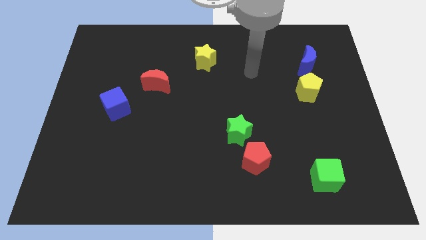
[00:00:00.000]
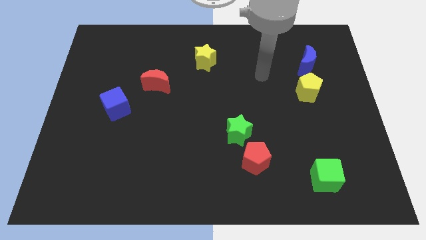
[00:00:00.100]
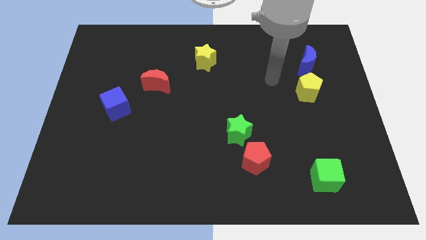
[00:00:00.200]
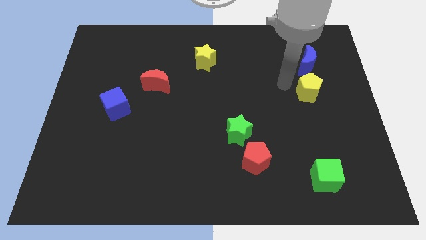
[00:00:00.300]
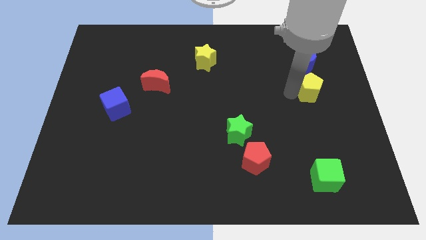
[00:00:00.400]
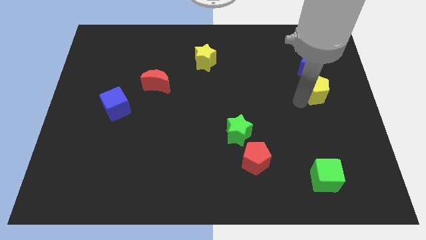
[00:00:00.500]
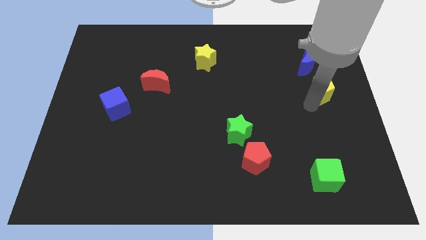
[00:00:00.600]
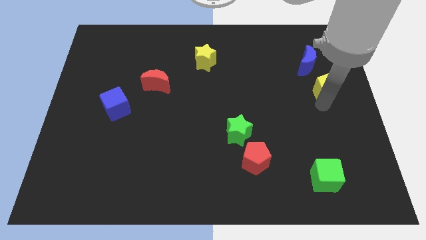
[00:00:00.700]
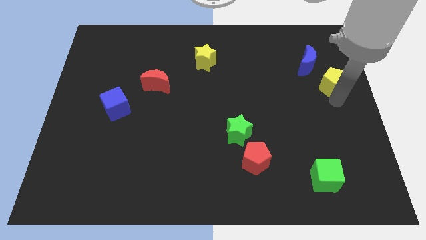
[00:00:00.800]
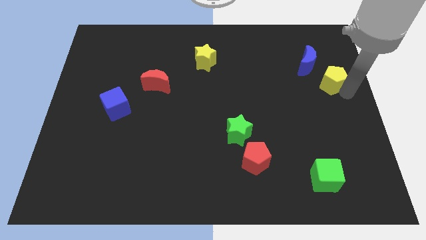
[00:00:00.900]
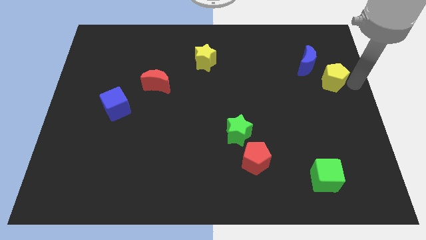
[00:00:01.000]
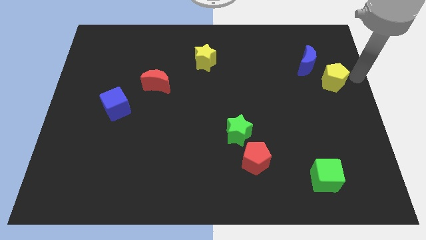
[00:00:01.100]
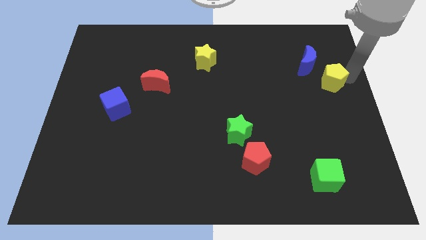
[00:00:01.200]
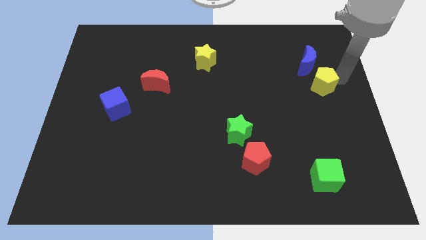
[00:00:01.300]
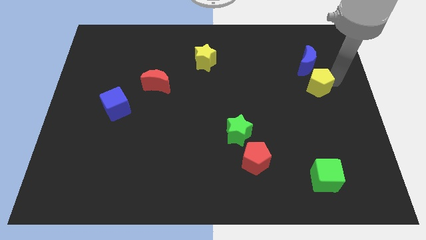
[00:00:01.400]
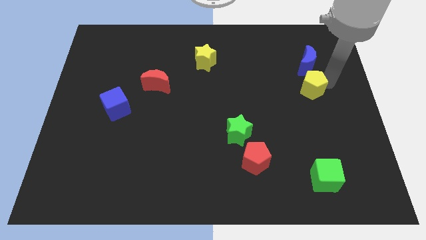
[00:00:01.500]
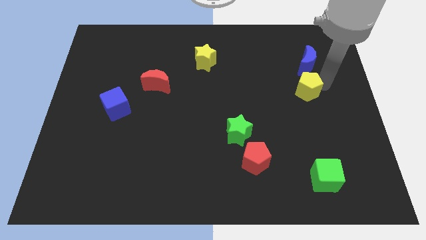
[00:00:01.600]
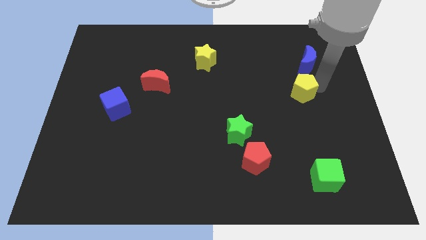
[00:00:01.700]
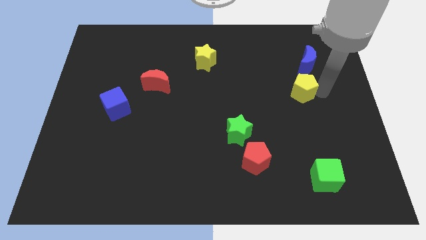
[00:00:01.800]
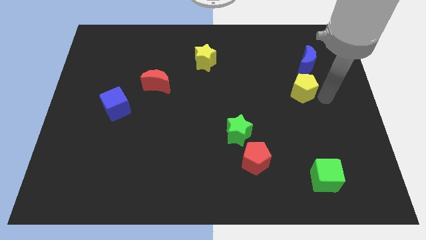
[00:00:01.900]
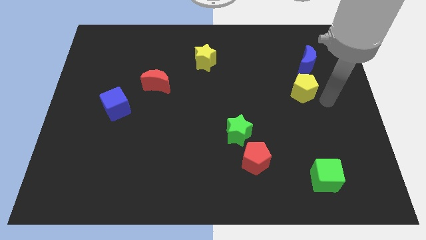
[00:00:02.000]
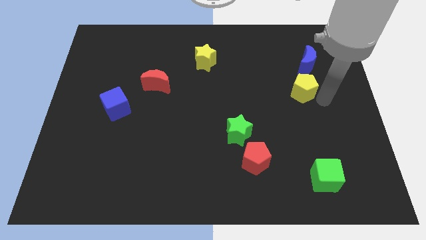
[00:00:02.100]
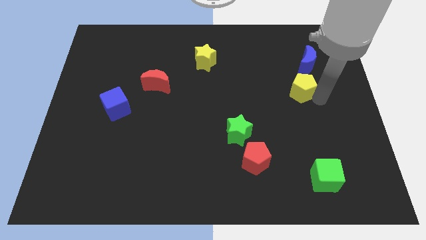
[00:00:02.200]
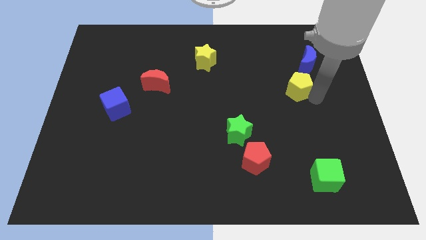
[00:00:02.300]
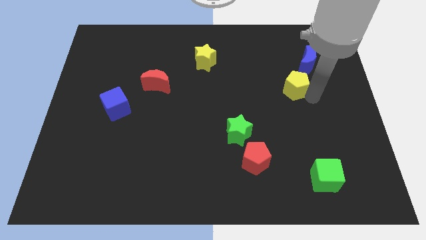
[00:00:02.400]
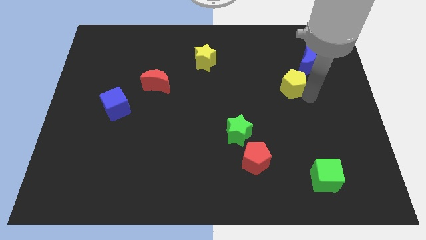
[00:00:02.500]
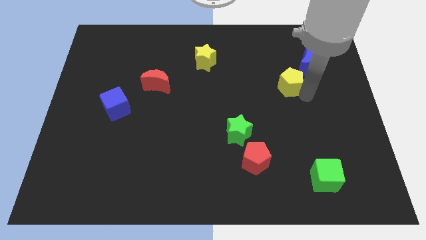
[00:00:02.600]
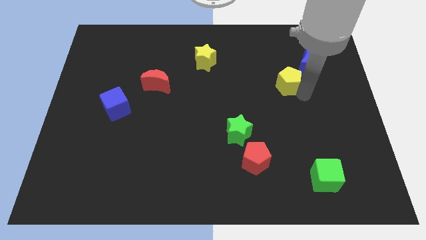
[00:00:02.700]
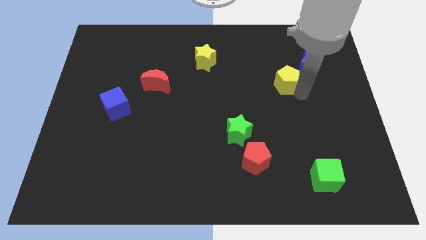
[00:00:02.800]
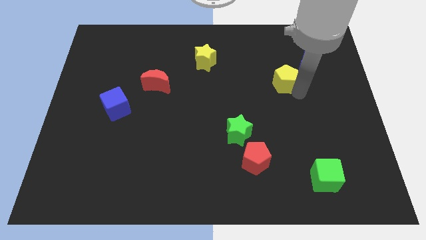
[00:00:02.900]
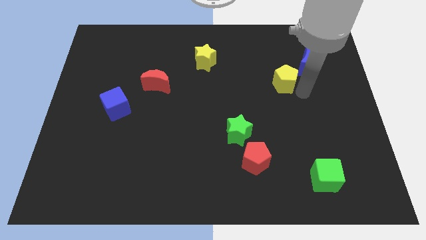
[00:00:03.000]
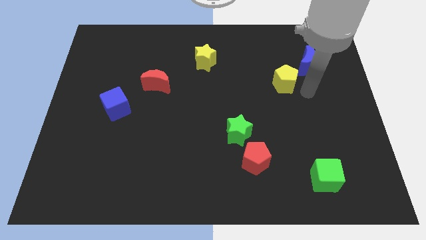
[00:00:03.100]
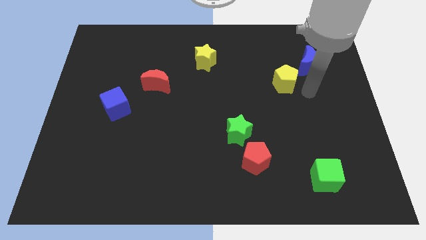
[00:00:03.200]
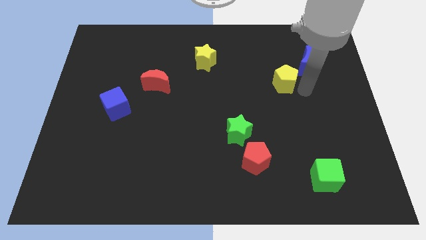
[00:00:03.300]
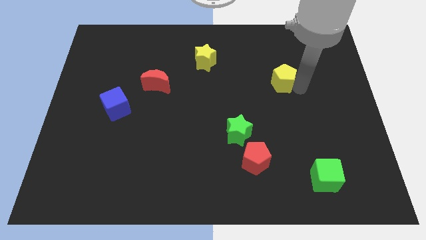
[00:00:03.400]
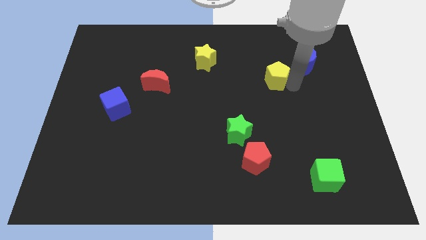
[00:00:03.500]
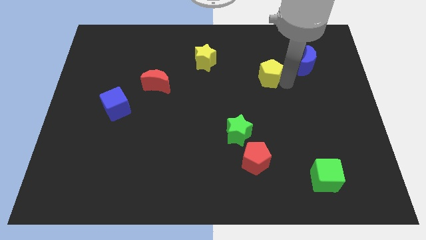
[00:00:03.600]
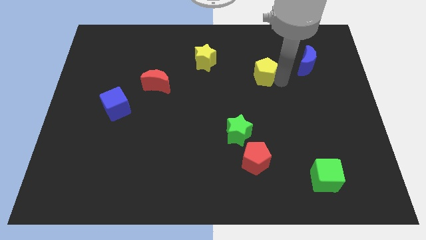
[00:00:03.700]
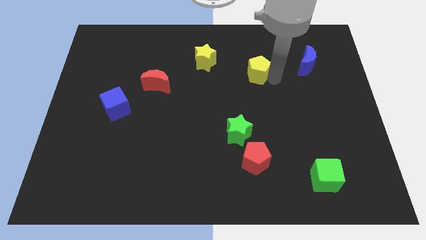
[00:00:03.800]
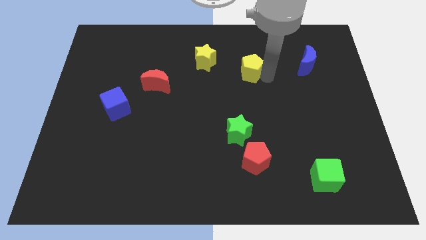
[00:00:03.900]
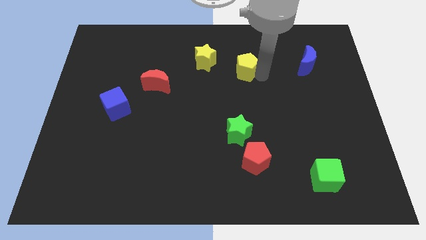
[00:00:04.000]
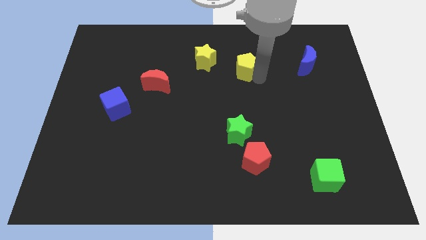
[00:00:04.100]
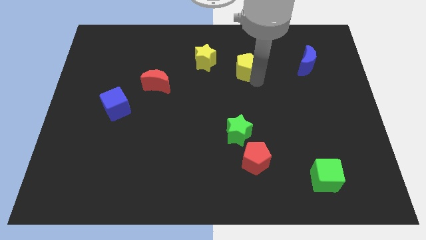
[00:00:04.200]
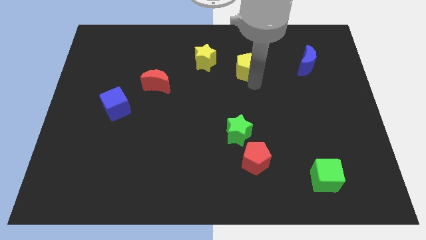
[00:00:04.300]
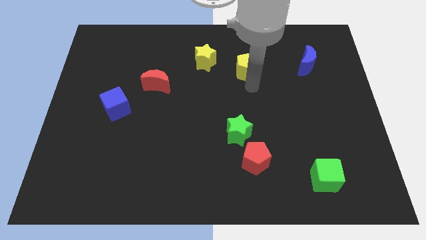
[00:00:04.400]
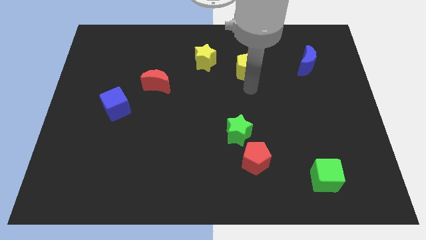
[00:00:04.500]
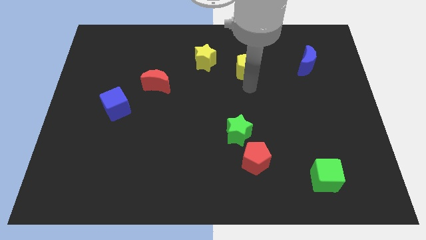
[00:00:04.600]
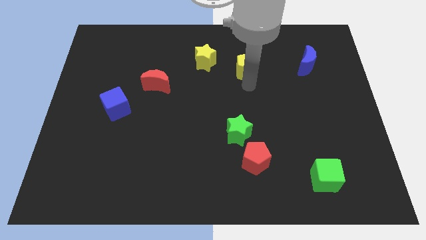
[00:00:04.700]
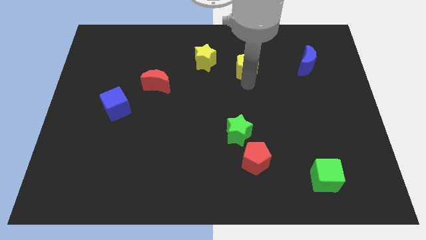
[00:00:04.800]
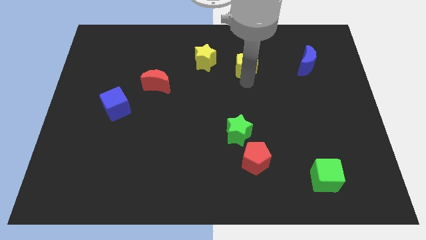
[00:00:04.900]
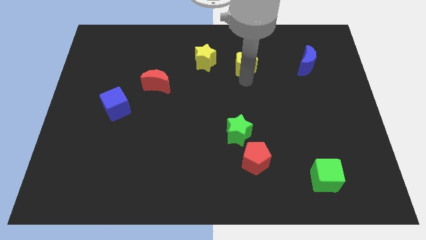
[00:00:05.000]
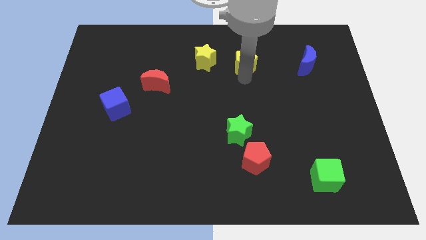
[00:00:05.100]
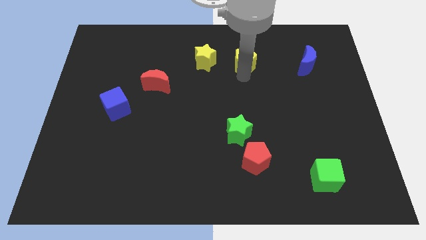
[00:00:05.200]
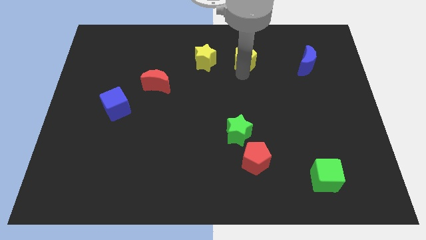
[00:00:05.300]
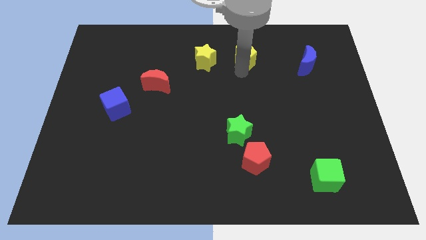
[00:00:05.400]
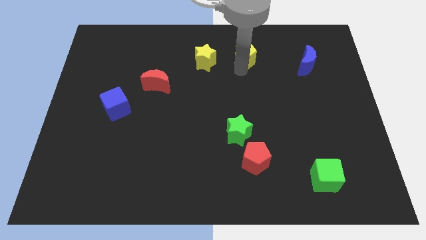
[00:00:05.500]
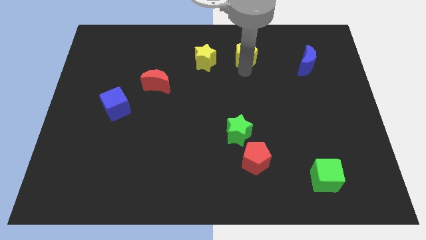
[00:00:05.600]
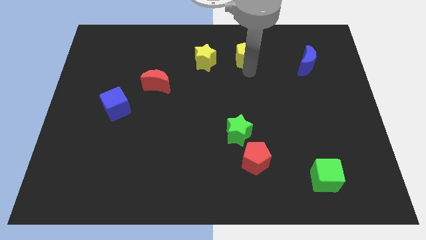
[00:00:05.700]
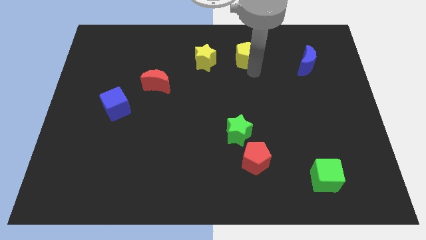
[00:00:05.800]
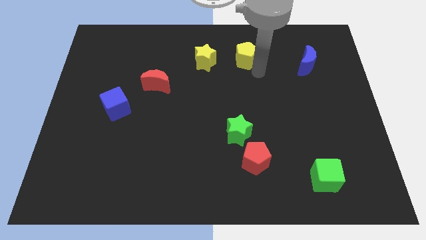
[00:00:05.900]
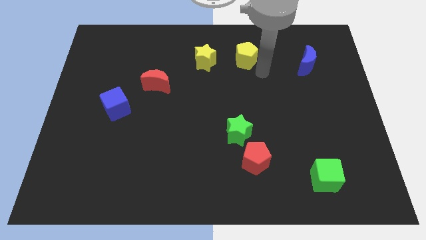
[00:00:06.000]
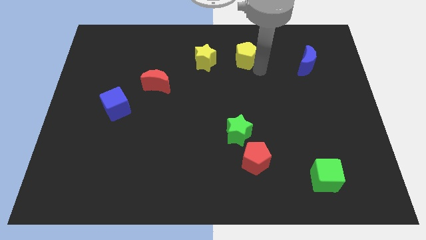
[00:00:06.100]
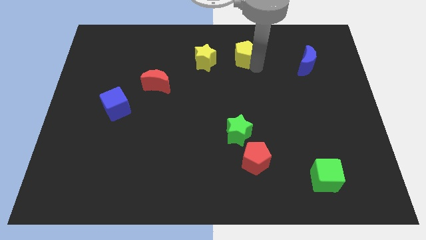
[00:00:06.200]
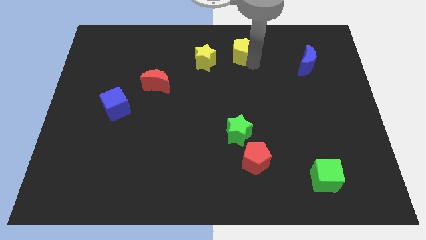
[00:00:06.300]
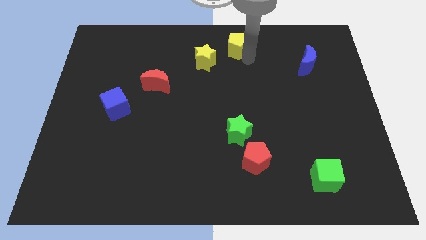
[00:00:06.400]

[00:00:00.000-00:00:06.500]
push the yellow pentagon to the top side
